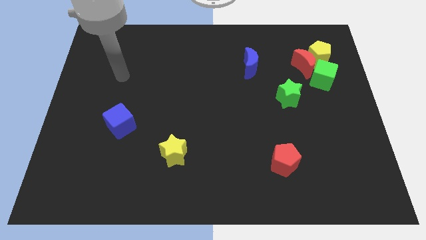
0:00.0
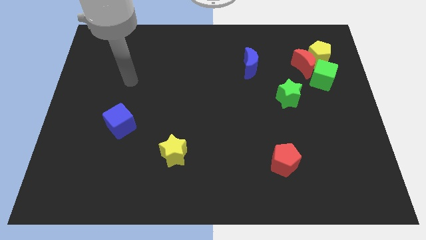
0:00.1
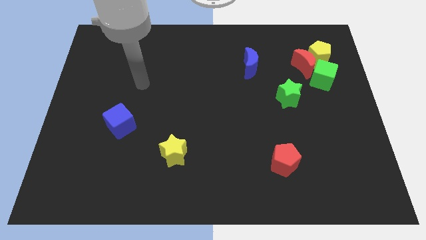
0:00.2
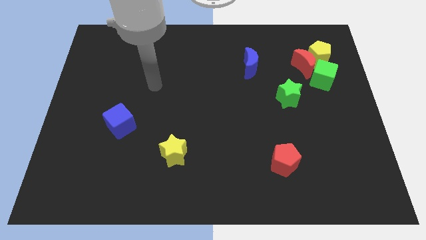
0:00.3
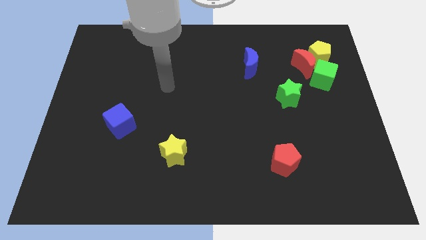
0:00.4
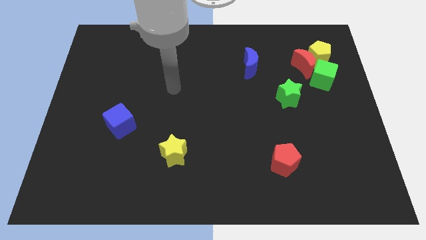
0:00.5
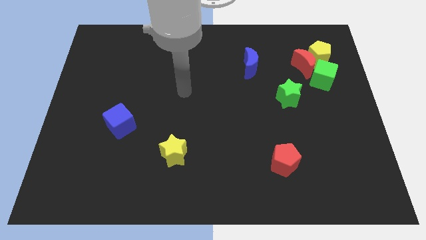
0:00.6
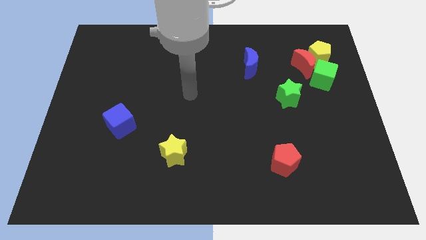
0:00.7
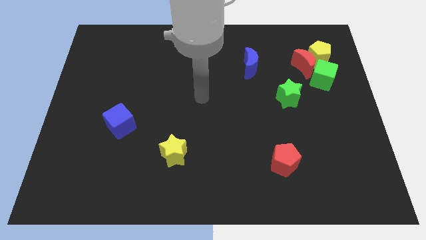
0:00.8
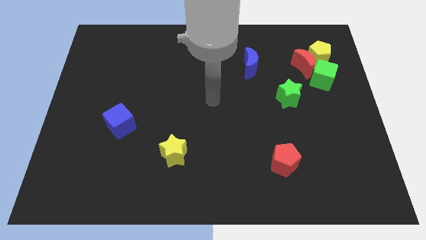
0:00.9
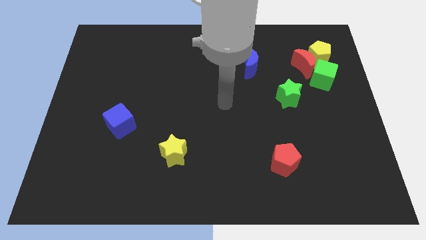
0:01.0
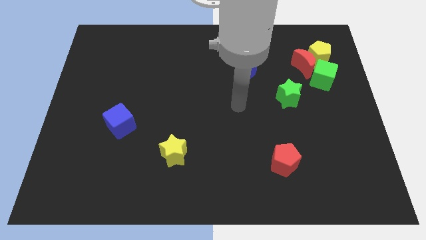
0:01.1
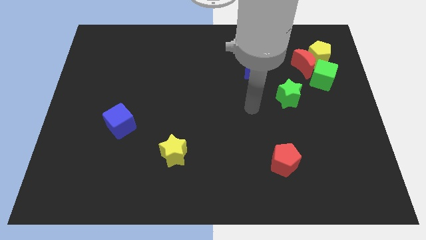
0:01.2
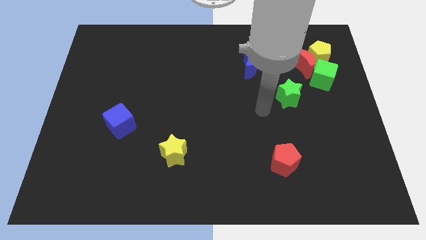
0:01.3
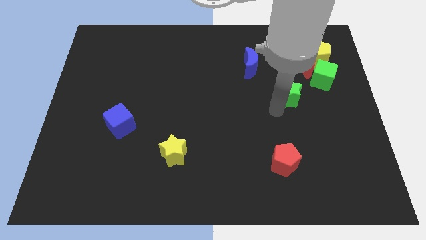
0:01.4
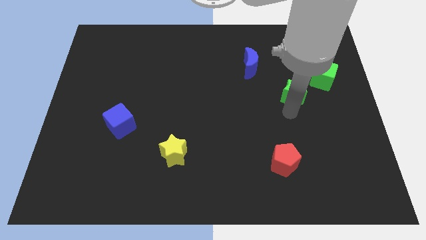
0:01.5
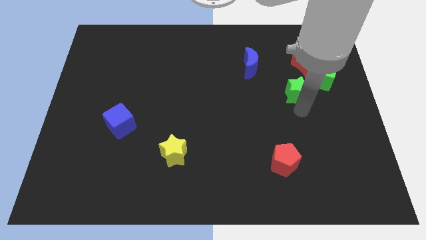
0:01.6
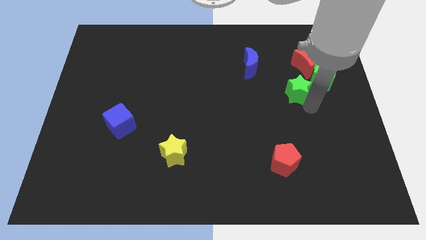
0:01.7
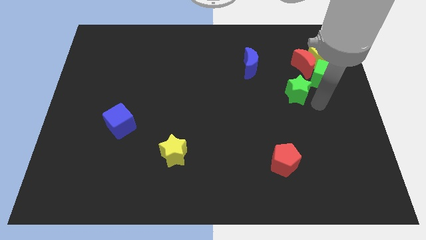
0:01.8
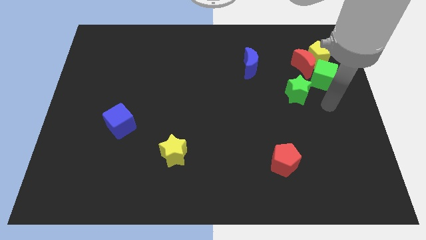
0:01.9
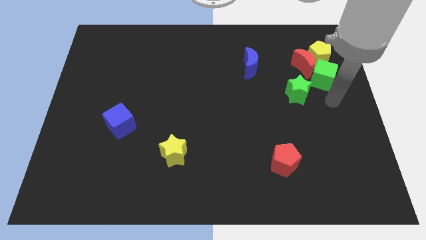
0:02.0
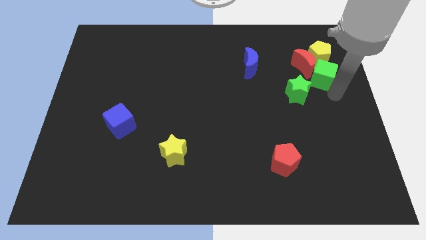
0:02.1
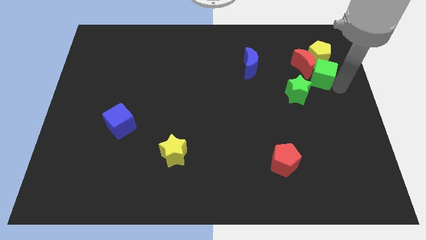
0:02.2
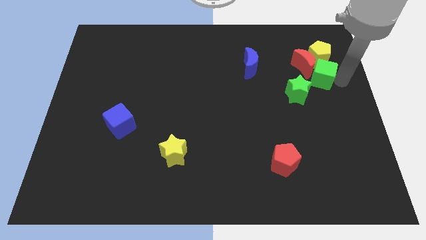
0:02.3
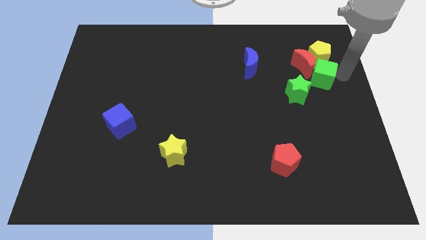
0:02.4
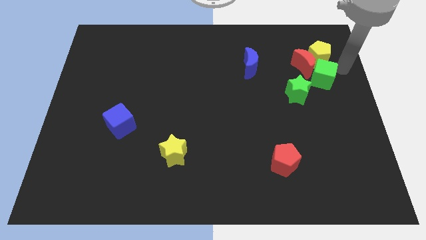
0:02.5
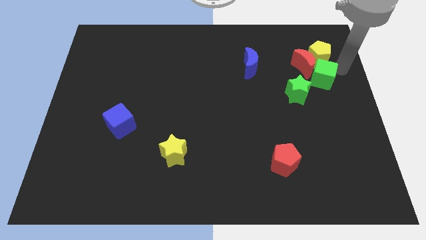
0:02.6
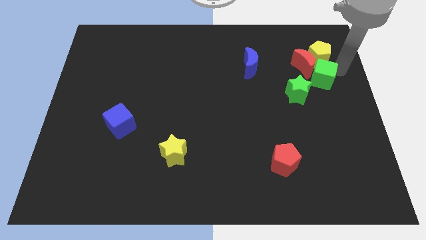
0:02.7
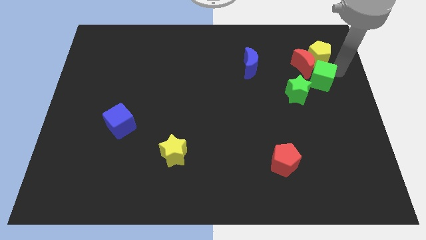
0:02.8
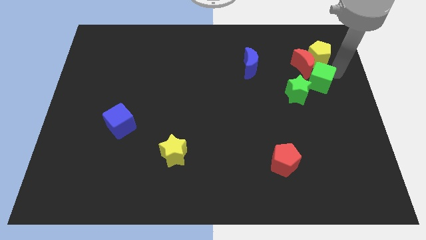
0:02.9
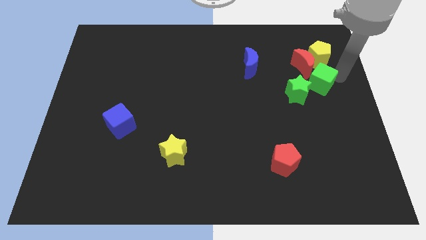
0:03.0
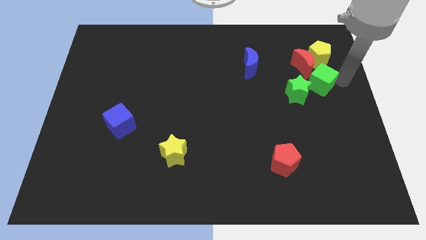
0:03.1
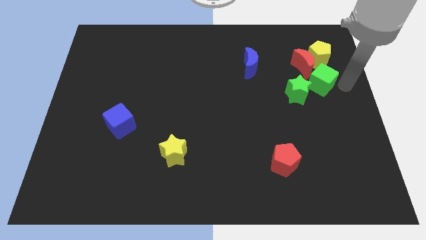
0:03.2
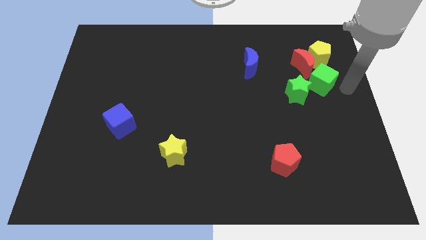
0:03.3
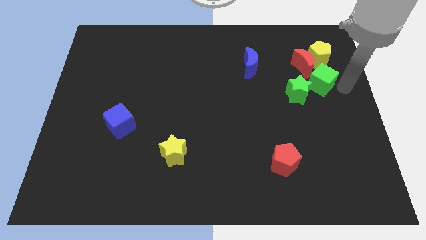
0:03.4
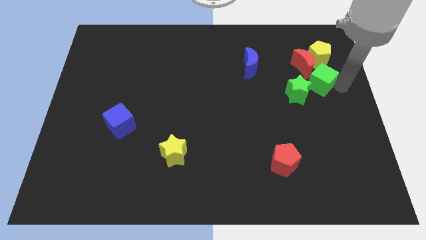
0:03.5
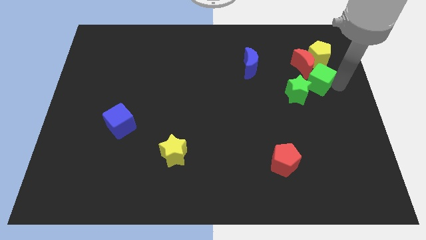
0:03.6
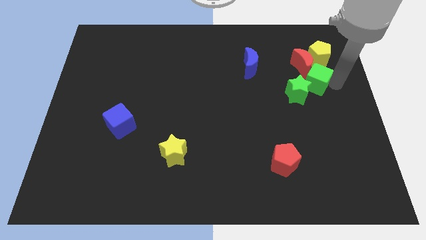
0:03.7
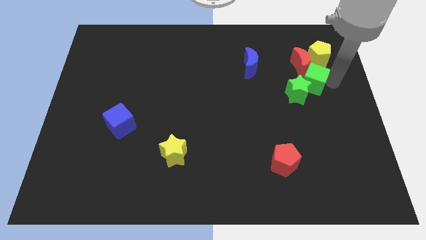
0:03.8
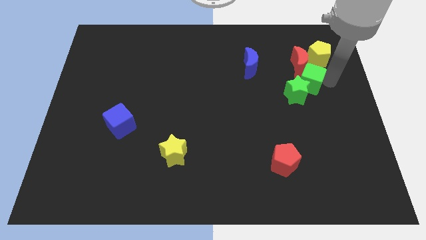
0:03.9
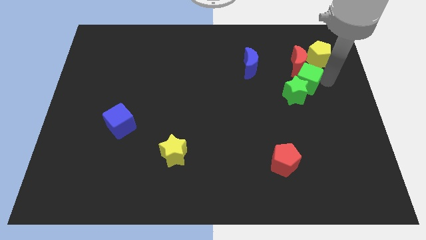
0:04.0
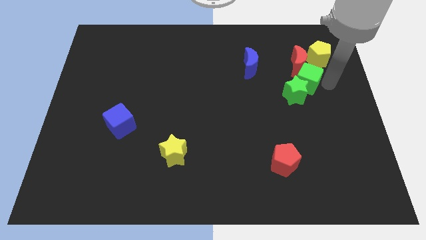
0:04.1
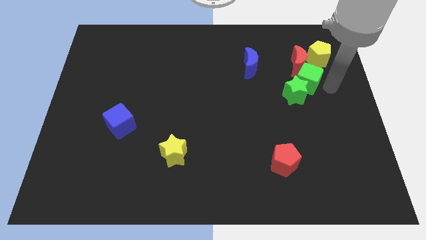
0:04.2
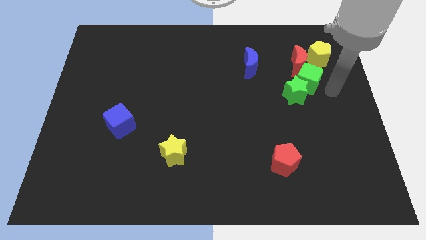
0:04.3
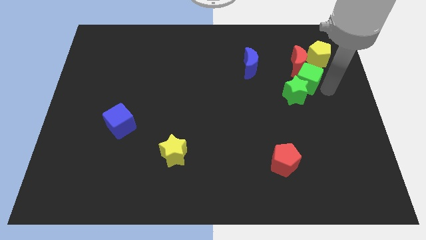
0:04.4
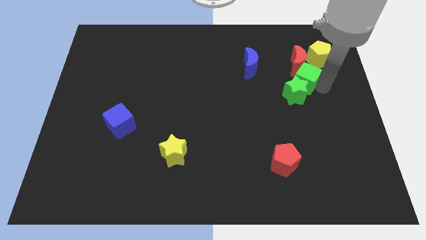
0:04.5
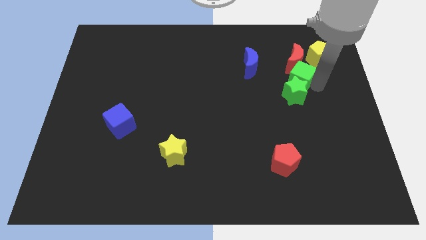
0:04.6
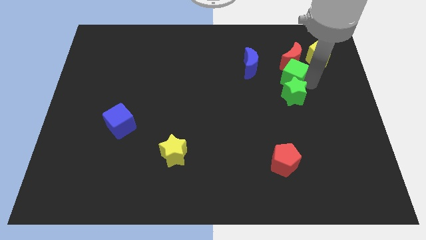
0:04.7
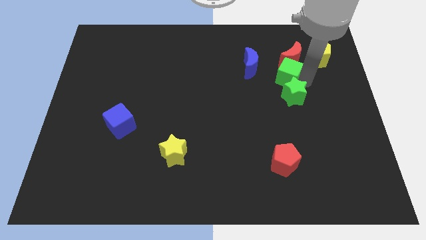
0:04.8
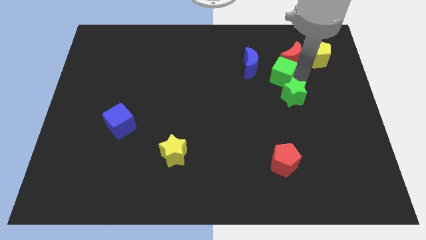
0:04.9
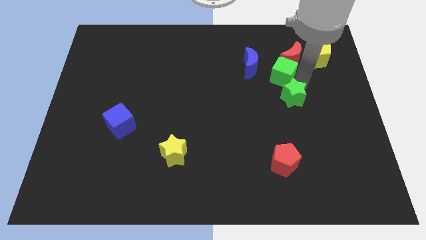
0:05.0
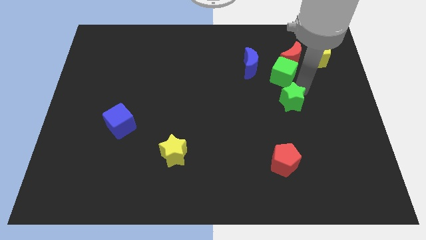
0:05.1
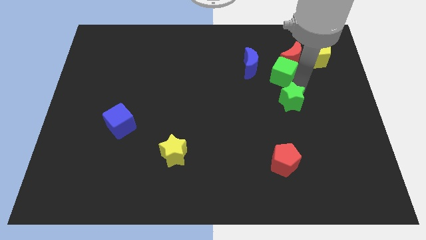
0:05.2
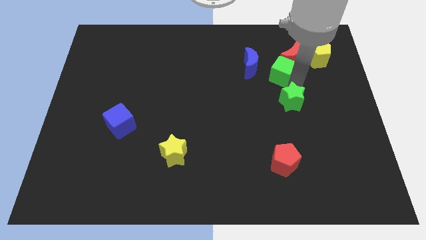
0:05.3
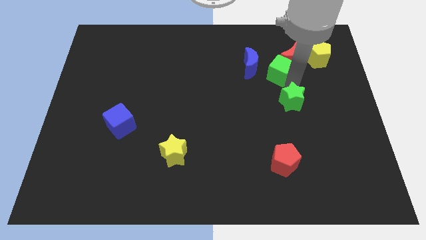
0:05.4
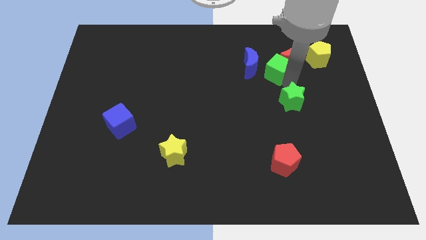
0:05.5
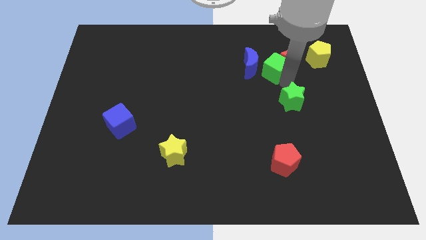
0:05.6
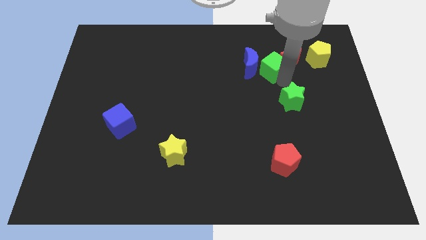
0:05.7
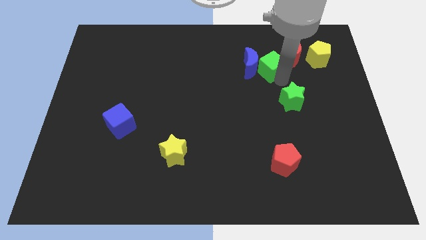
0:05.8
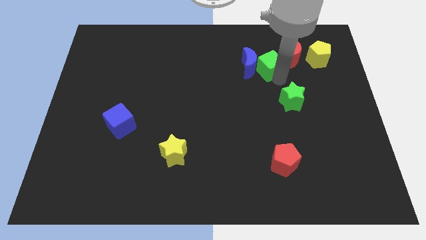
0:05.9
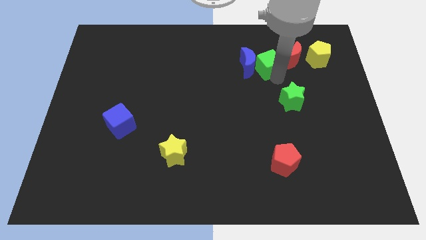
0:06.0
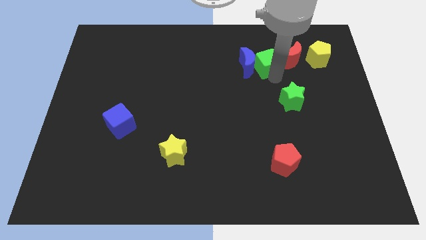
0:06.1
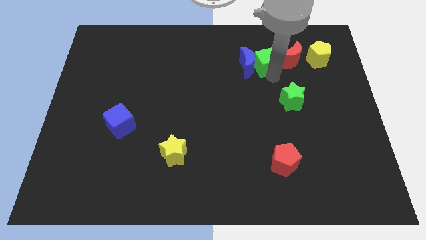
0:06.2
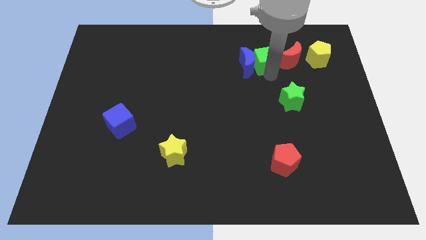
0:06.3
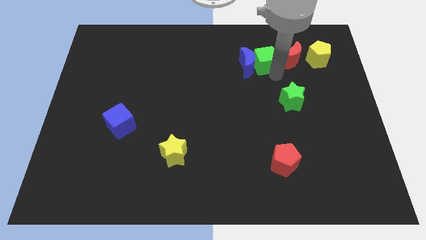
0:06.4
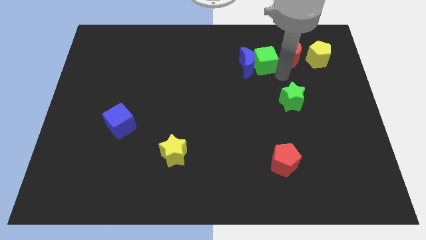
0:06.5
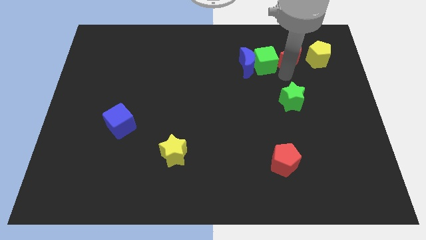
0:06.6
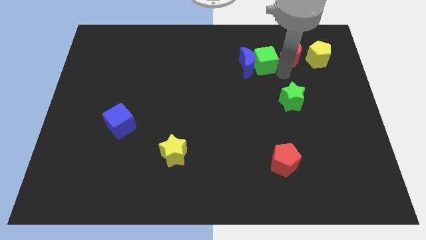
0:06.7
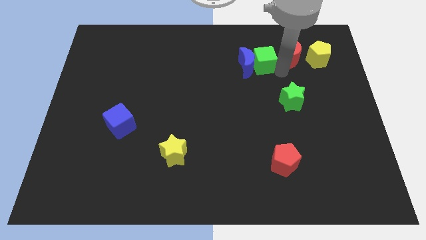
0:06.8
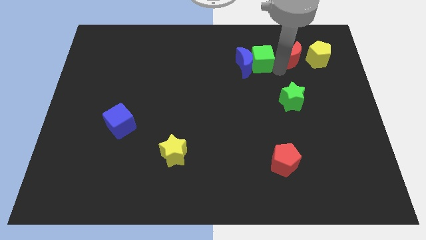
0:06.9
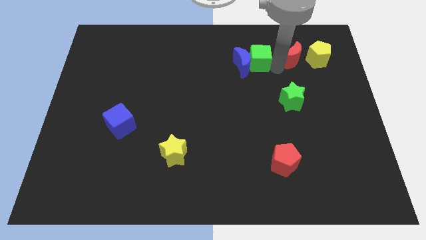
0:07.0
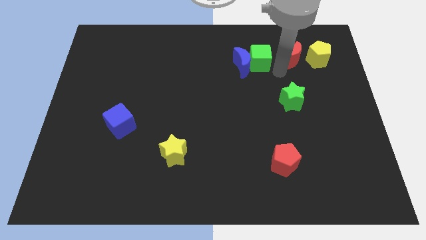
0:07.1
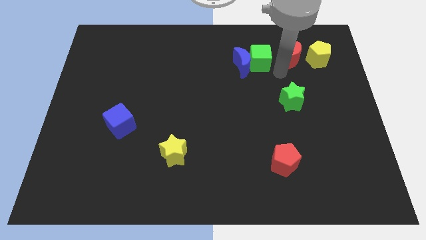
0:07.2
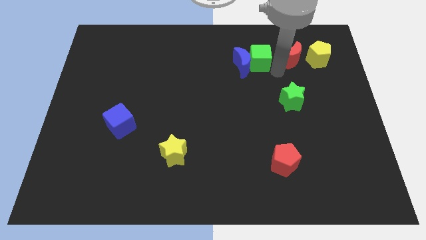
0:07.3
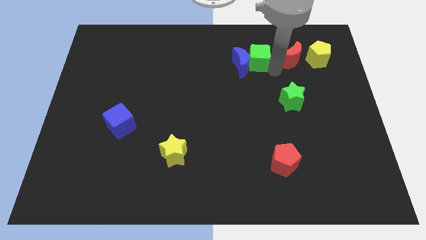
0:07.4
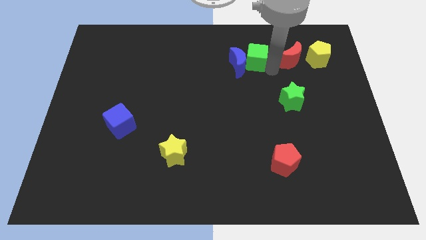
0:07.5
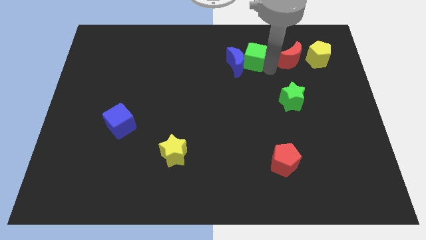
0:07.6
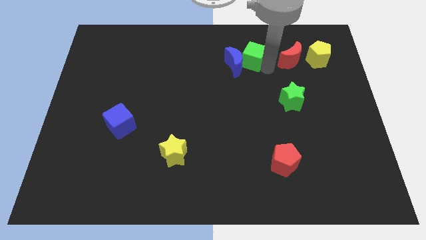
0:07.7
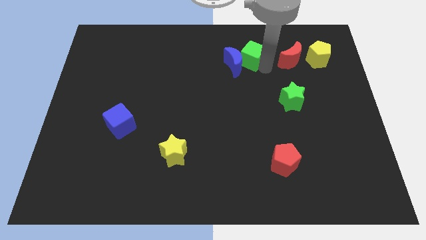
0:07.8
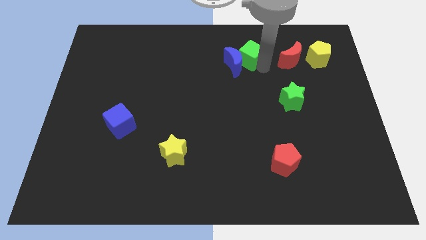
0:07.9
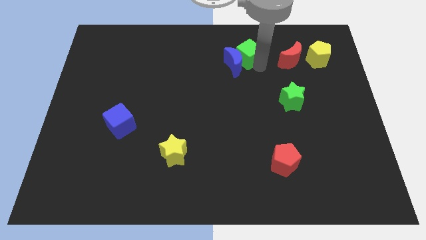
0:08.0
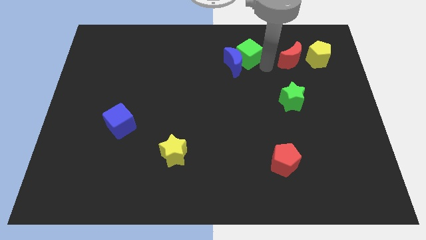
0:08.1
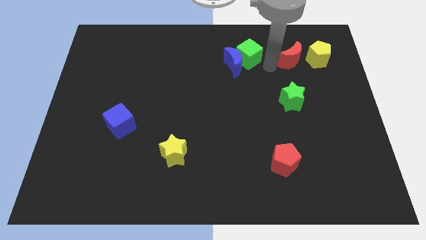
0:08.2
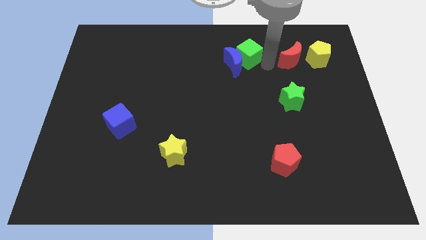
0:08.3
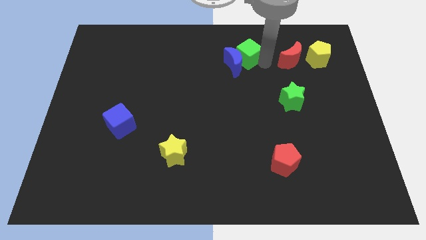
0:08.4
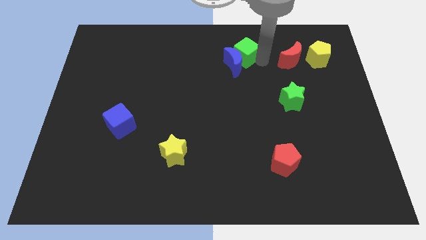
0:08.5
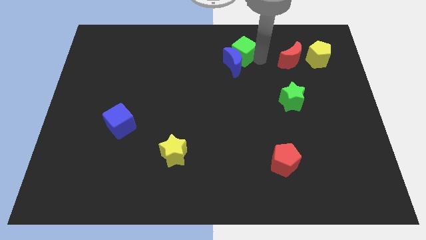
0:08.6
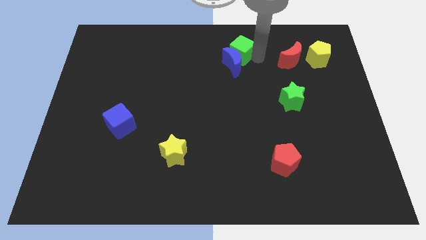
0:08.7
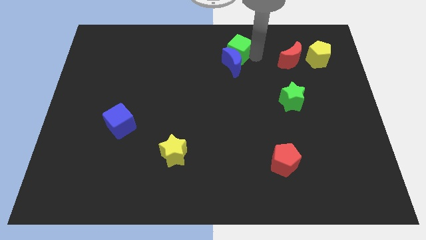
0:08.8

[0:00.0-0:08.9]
slide the green cube to the towards your base
